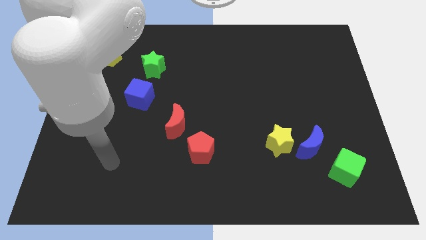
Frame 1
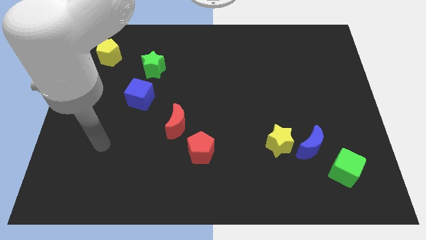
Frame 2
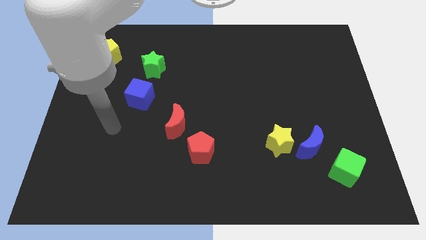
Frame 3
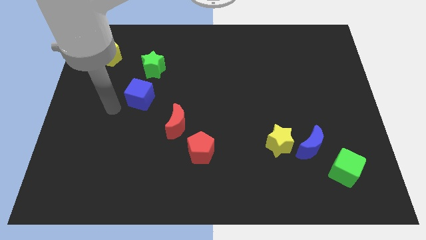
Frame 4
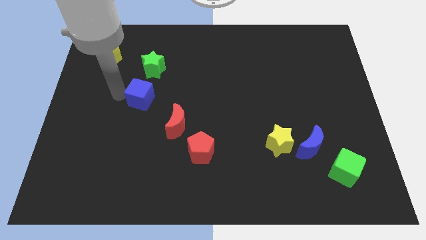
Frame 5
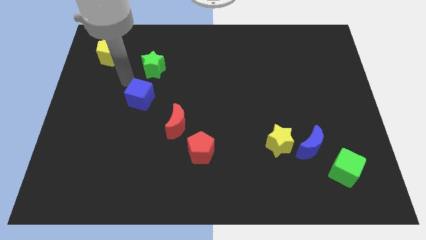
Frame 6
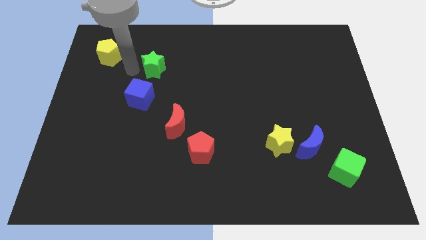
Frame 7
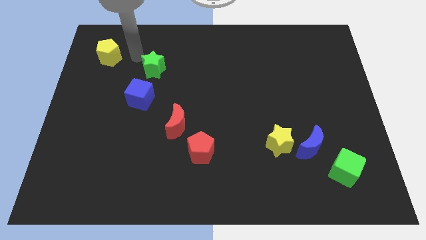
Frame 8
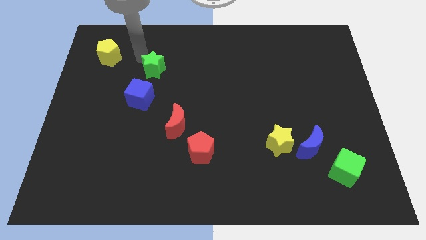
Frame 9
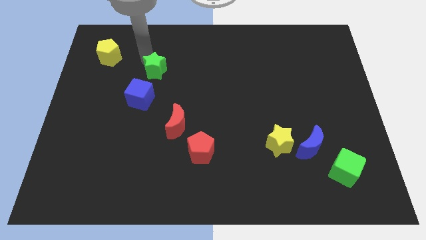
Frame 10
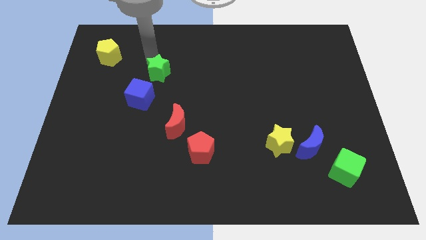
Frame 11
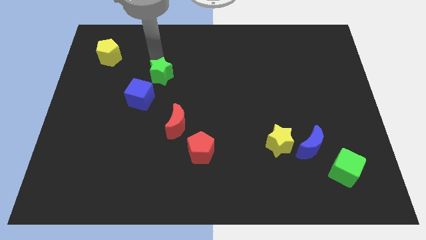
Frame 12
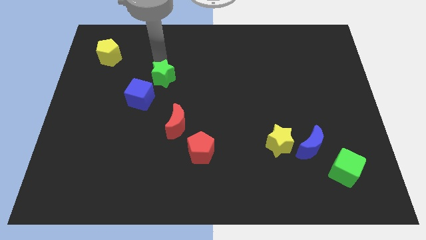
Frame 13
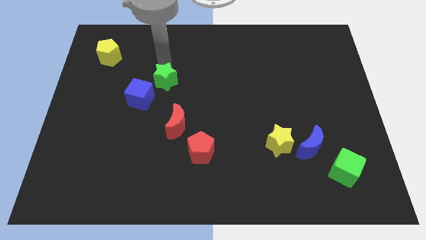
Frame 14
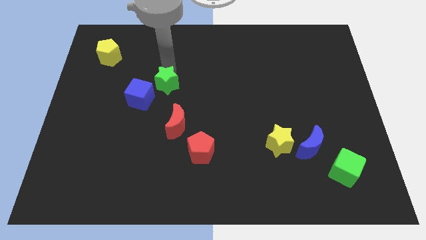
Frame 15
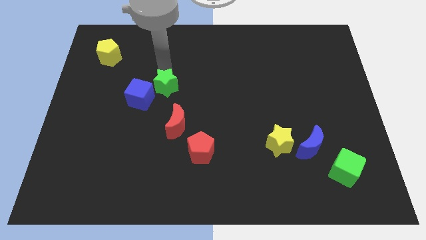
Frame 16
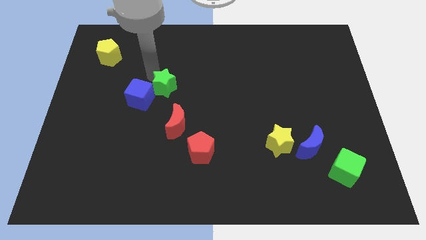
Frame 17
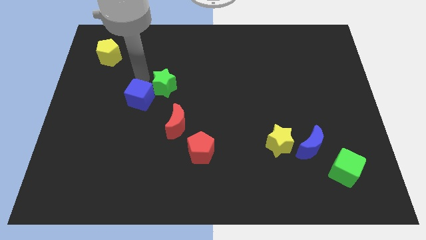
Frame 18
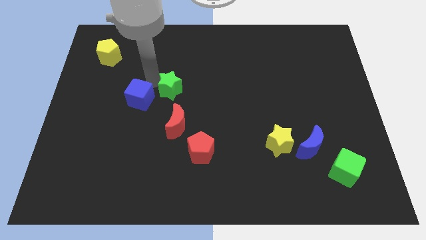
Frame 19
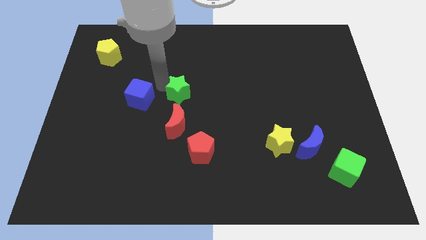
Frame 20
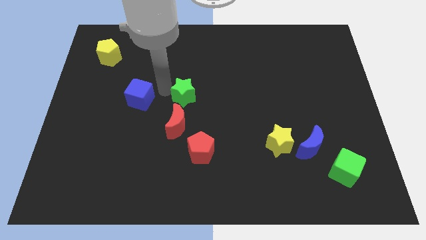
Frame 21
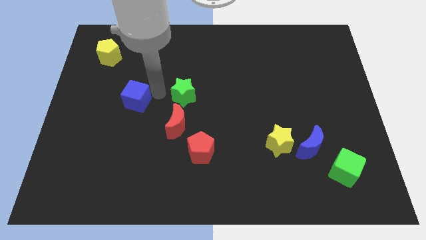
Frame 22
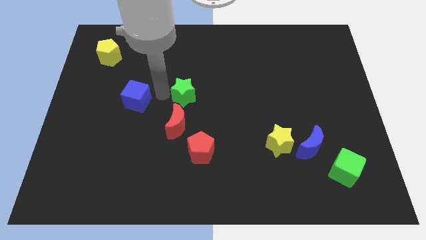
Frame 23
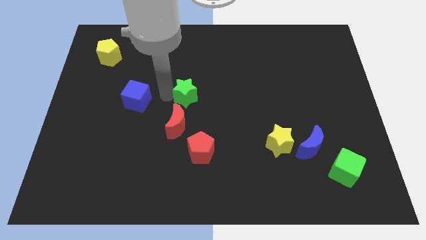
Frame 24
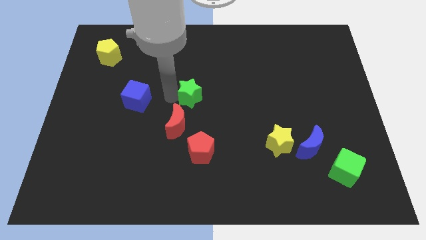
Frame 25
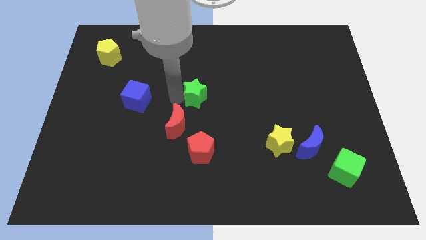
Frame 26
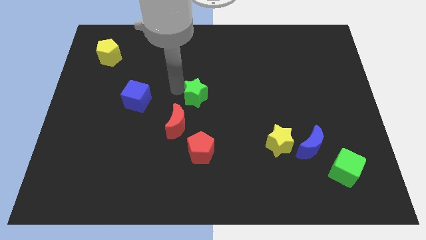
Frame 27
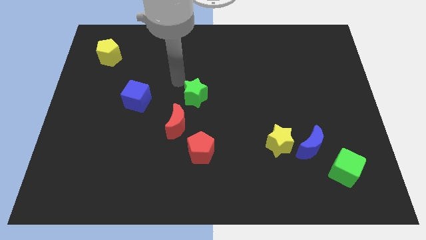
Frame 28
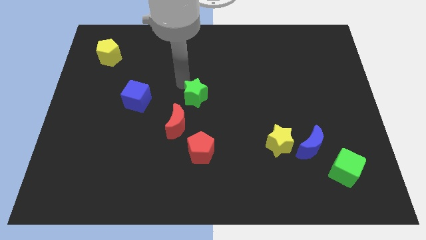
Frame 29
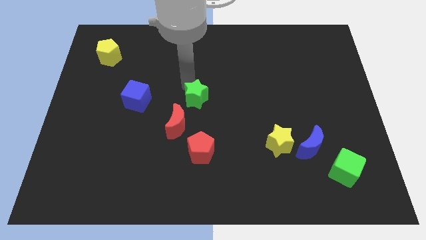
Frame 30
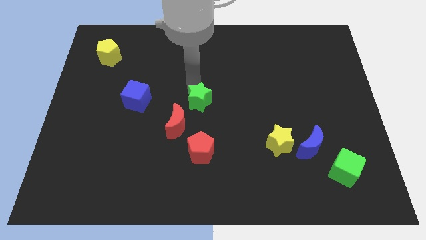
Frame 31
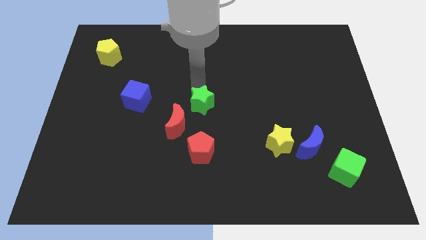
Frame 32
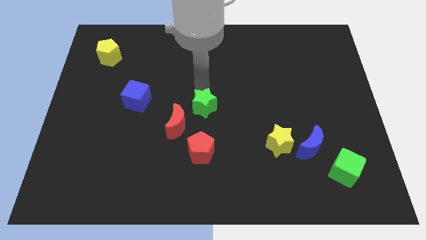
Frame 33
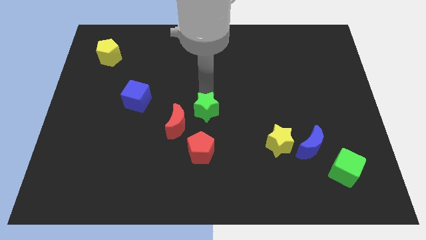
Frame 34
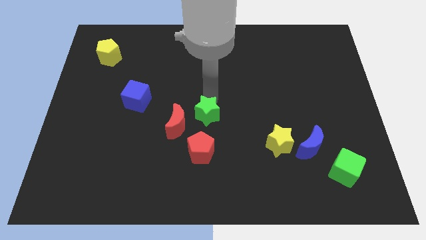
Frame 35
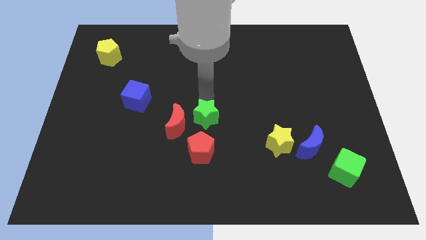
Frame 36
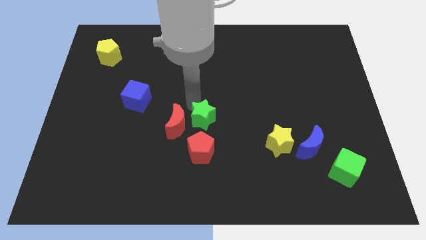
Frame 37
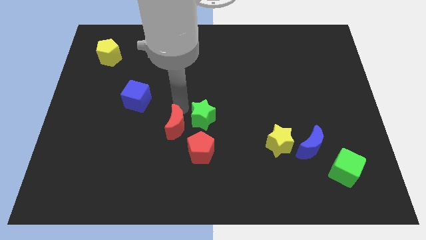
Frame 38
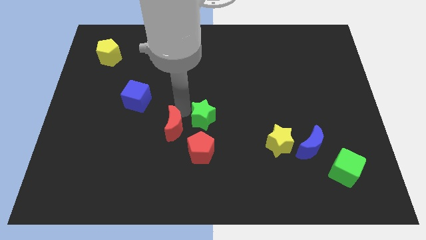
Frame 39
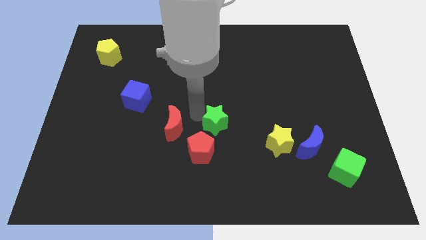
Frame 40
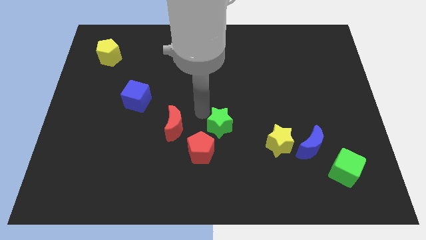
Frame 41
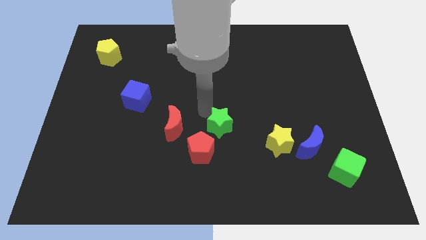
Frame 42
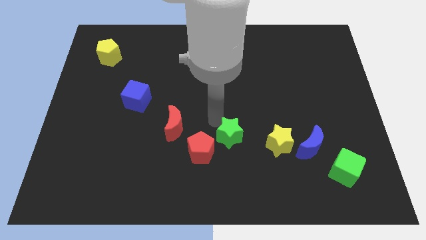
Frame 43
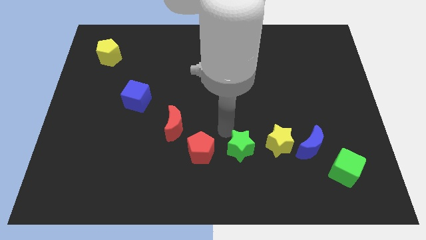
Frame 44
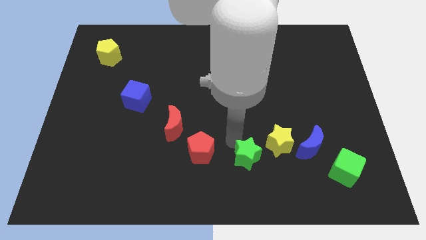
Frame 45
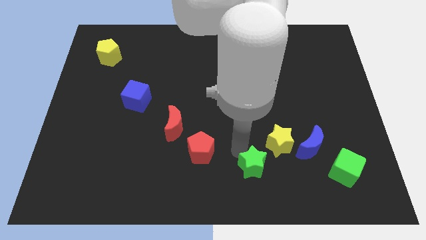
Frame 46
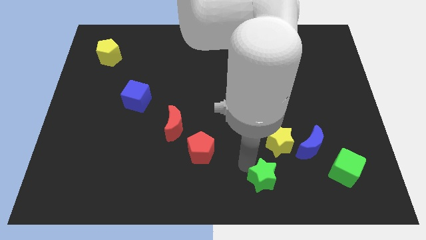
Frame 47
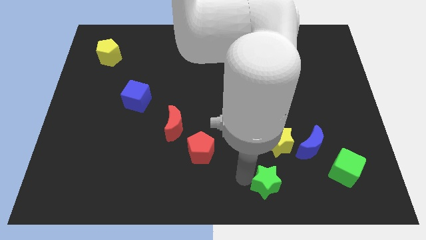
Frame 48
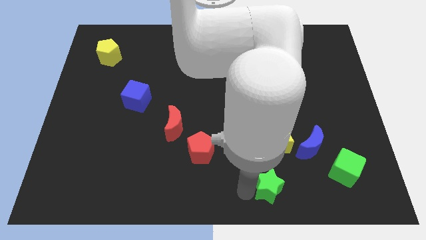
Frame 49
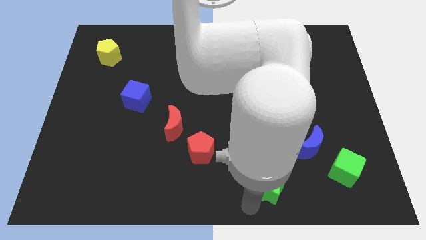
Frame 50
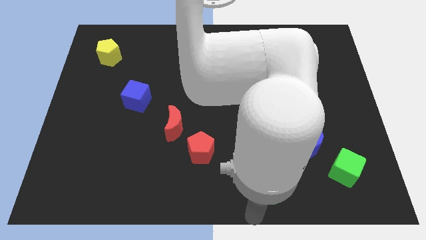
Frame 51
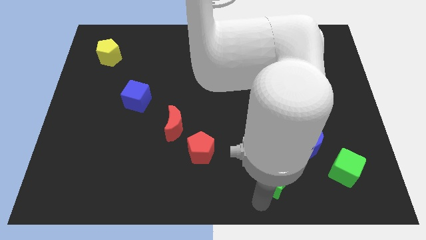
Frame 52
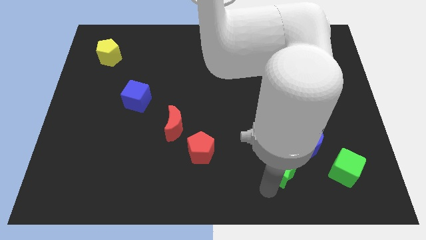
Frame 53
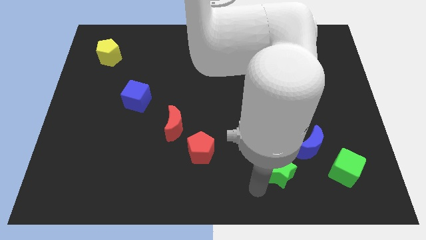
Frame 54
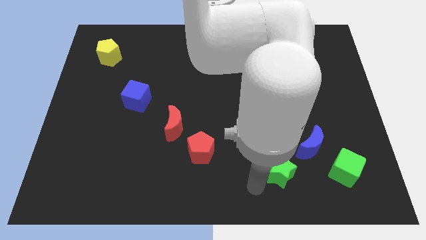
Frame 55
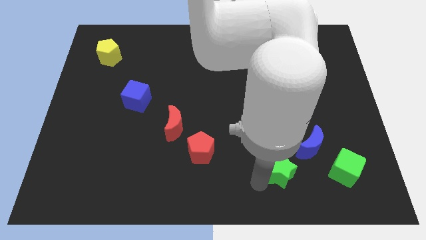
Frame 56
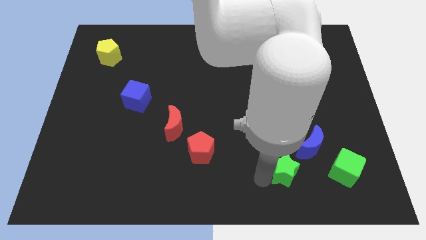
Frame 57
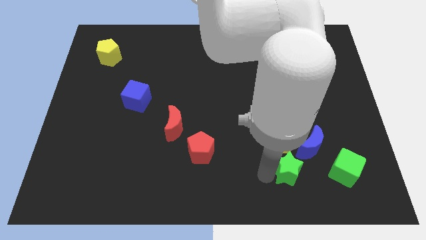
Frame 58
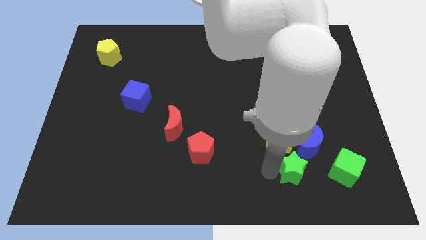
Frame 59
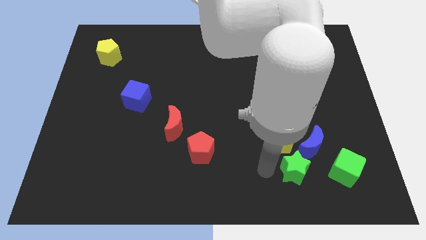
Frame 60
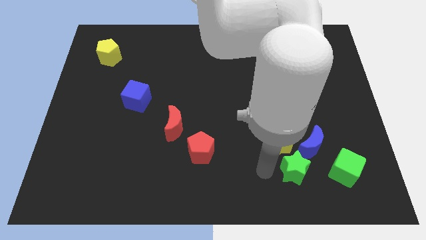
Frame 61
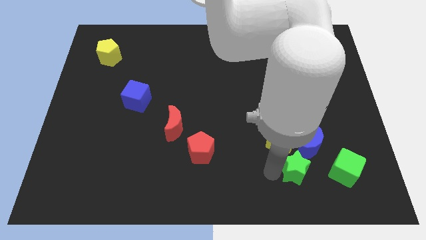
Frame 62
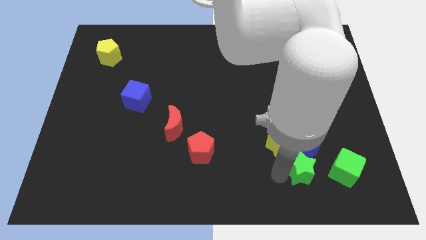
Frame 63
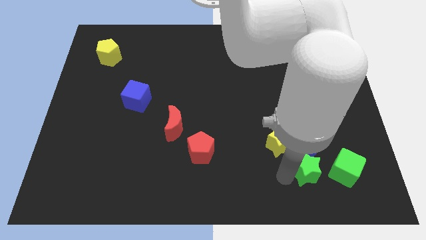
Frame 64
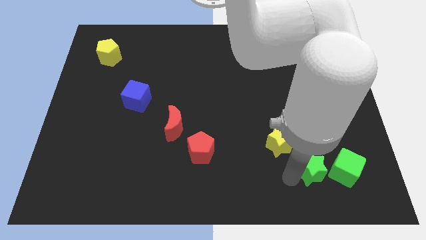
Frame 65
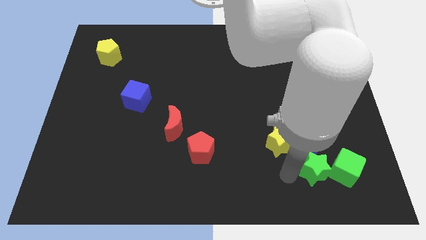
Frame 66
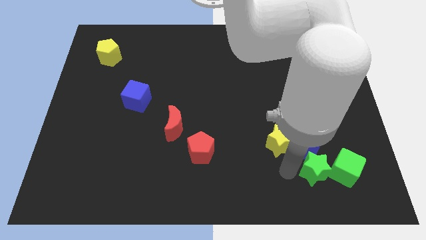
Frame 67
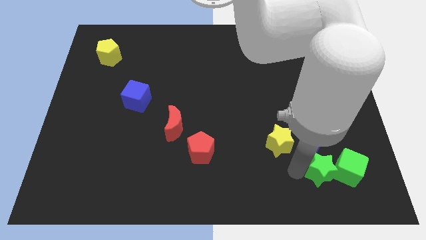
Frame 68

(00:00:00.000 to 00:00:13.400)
move the green star next to the green cube

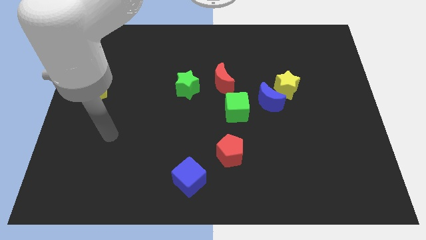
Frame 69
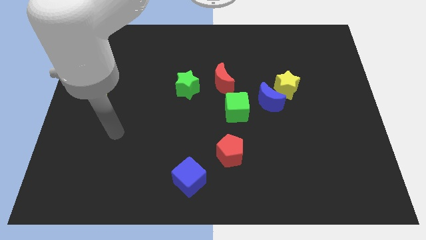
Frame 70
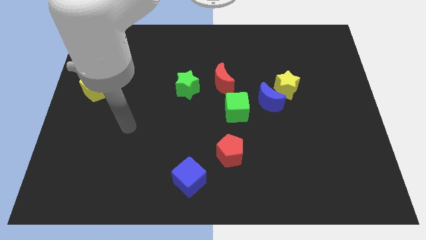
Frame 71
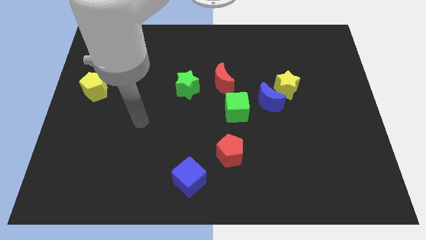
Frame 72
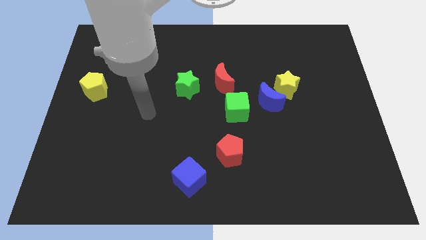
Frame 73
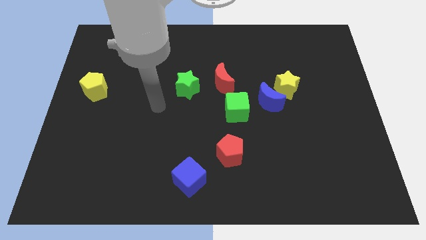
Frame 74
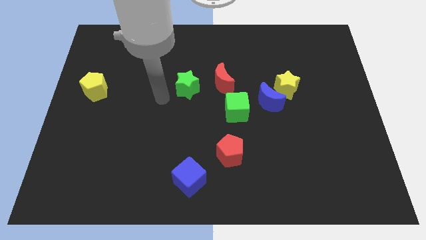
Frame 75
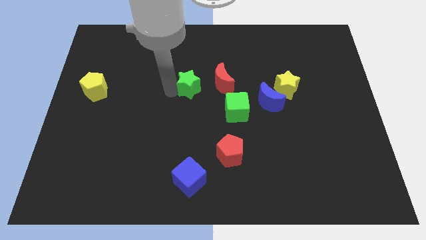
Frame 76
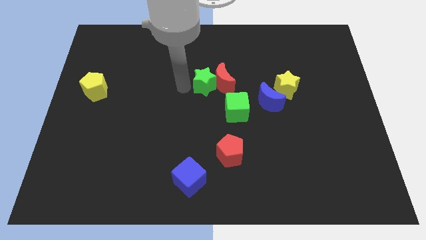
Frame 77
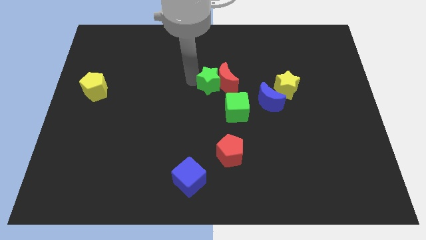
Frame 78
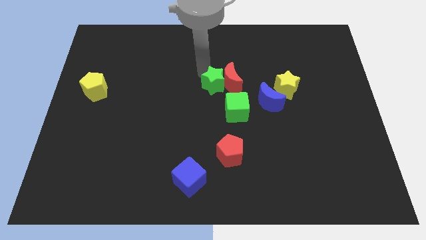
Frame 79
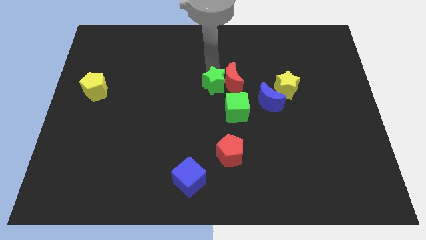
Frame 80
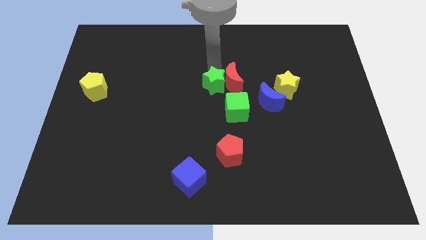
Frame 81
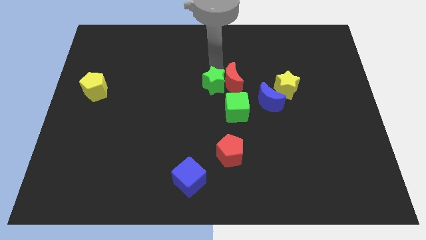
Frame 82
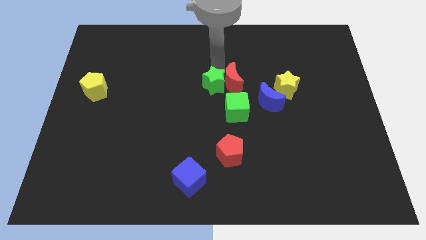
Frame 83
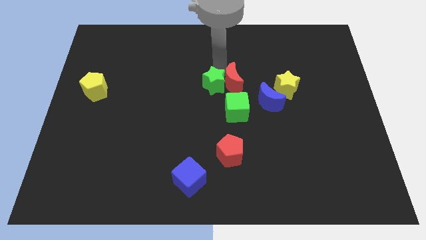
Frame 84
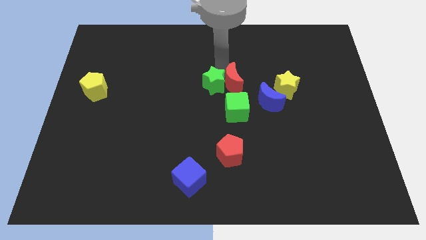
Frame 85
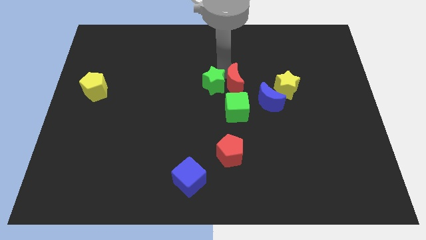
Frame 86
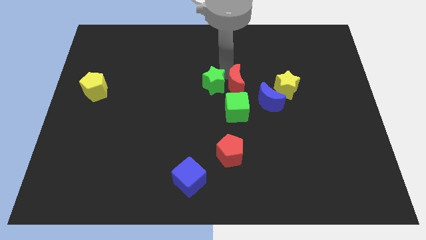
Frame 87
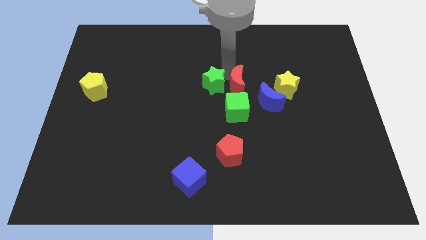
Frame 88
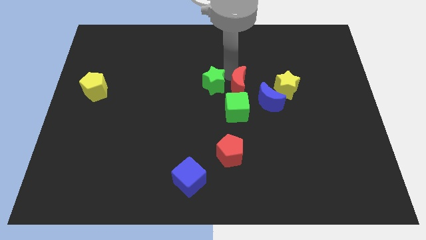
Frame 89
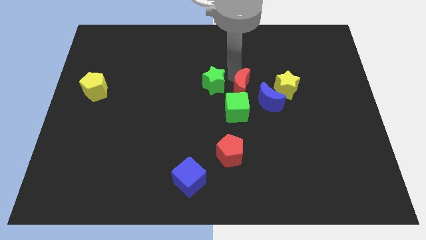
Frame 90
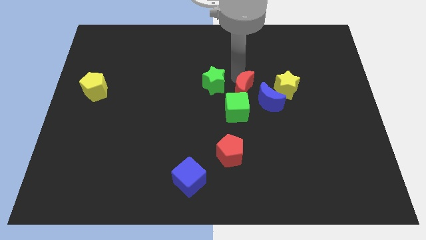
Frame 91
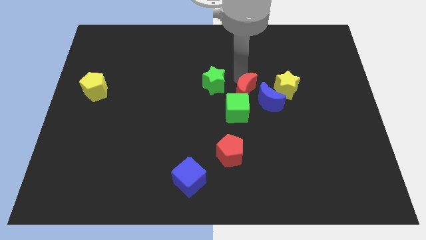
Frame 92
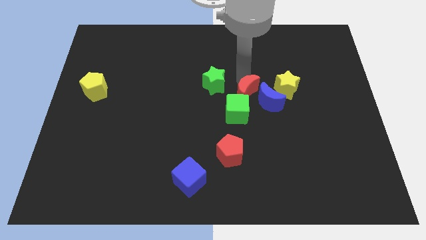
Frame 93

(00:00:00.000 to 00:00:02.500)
put the red moon close to the blue moon
